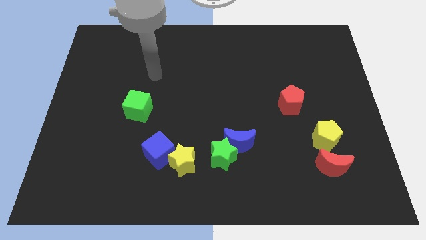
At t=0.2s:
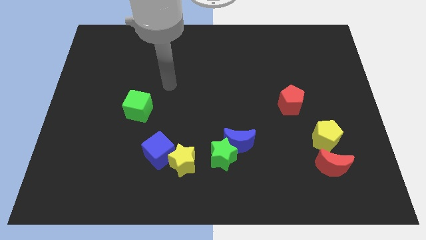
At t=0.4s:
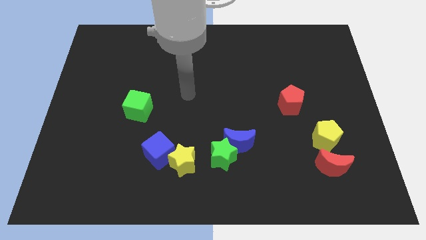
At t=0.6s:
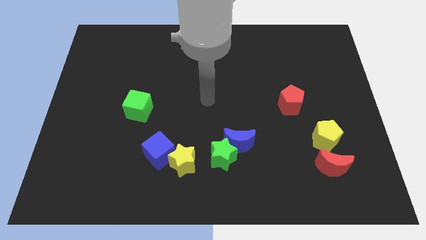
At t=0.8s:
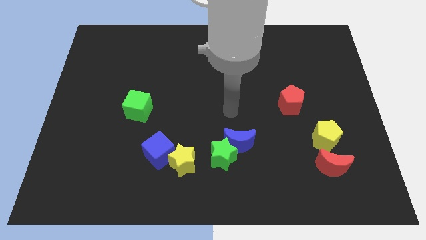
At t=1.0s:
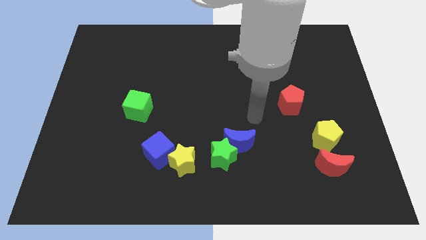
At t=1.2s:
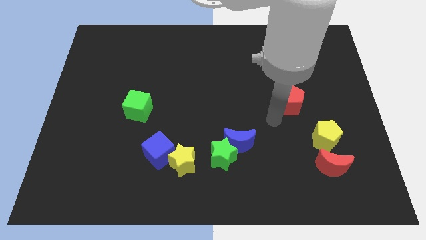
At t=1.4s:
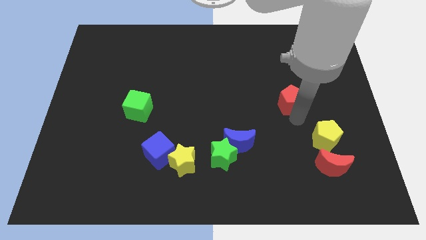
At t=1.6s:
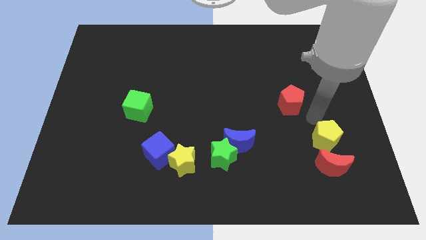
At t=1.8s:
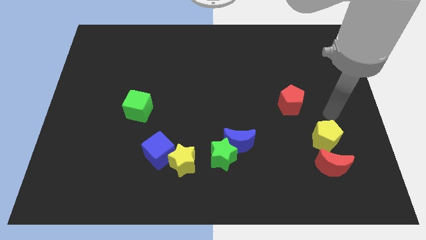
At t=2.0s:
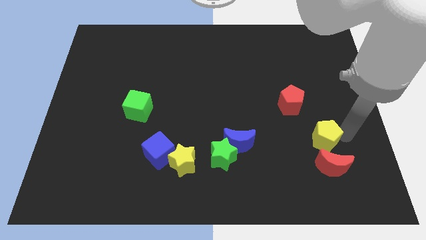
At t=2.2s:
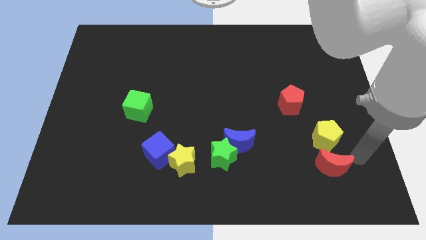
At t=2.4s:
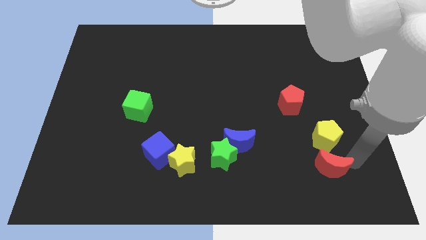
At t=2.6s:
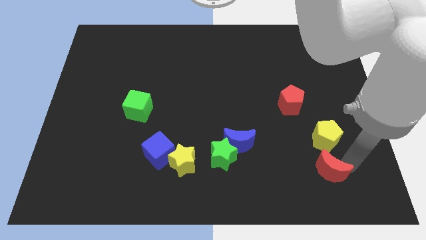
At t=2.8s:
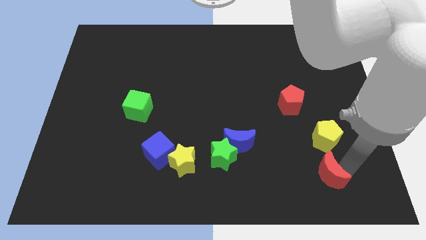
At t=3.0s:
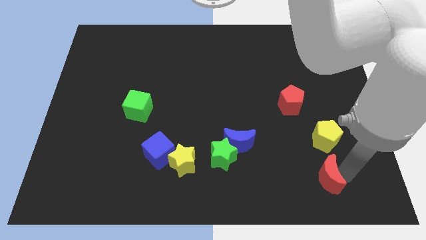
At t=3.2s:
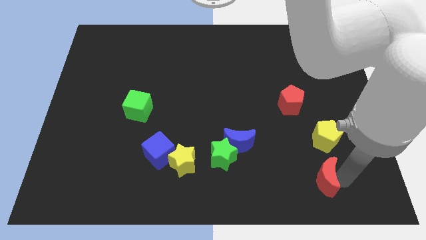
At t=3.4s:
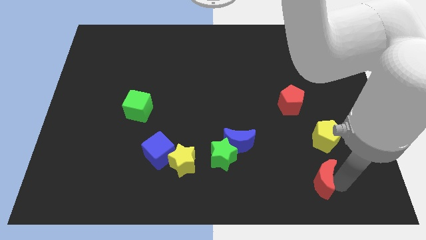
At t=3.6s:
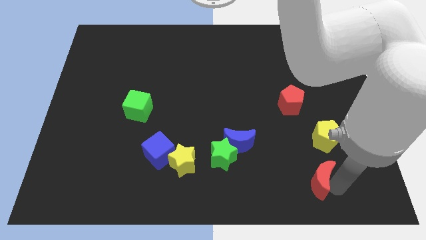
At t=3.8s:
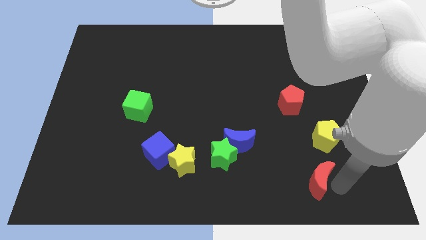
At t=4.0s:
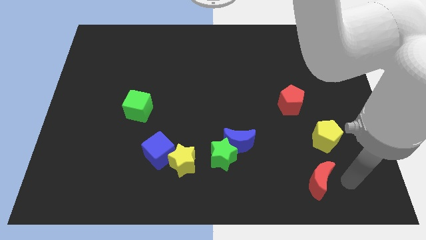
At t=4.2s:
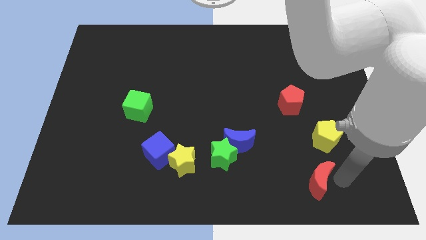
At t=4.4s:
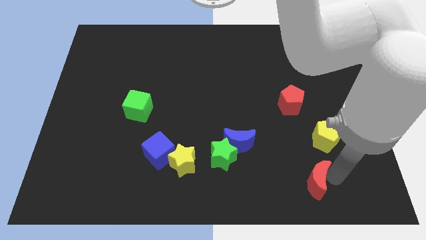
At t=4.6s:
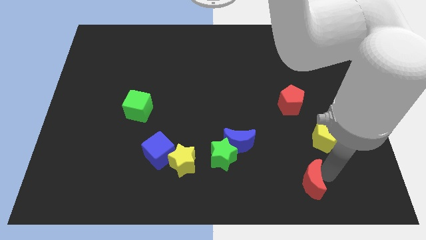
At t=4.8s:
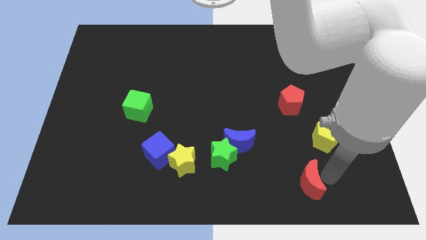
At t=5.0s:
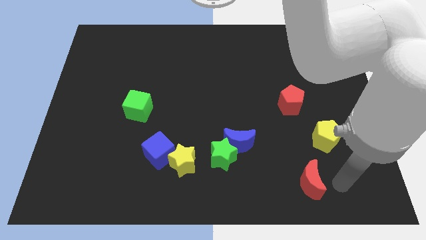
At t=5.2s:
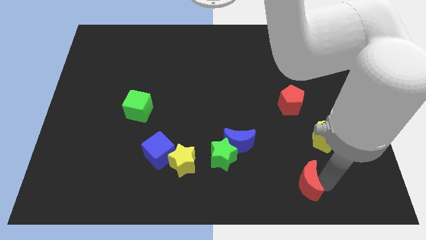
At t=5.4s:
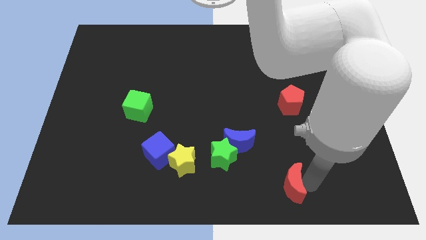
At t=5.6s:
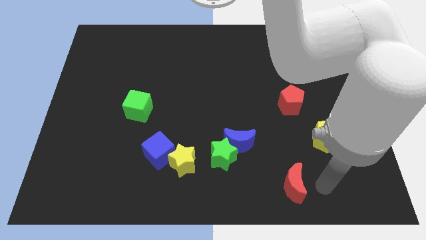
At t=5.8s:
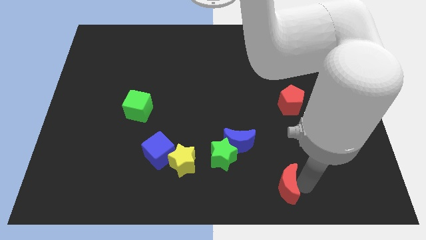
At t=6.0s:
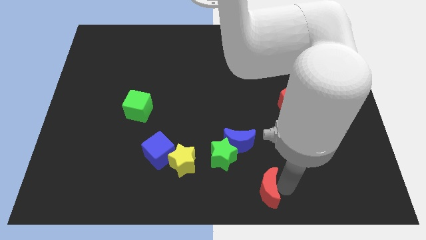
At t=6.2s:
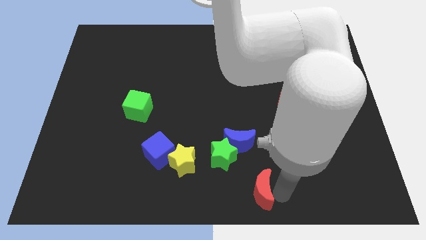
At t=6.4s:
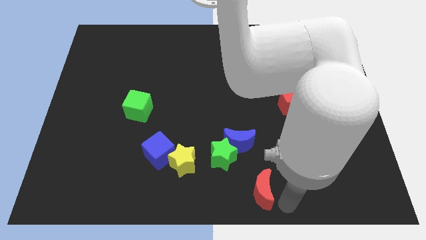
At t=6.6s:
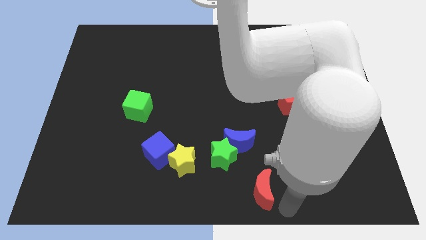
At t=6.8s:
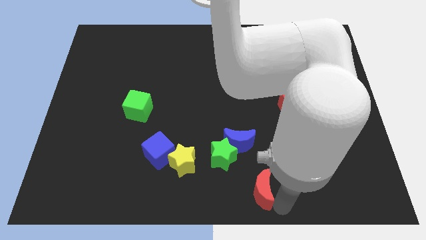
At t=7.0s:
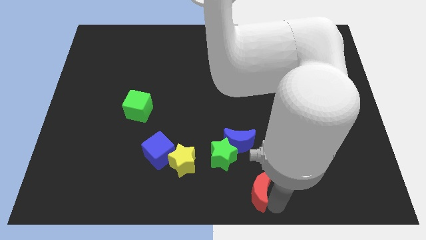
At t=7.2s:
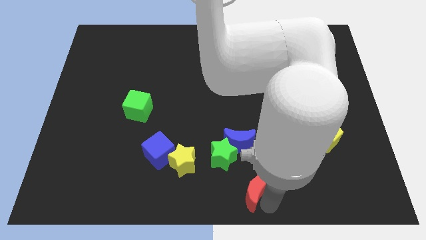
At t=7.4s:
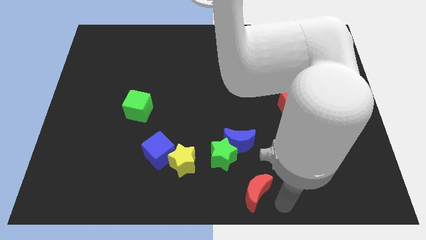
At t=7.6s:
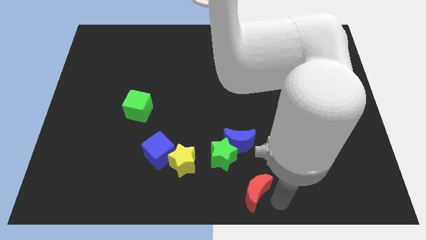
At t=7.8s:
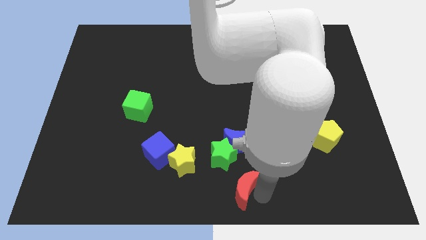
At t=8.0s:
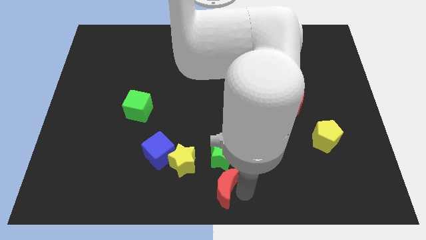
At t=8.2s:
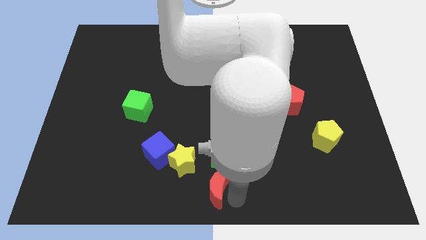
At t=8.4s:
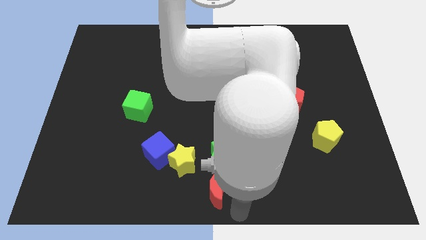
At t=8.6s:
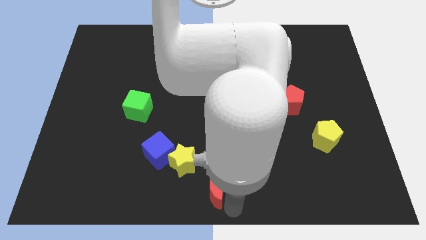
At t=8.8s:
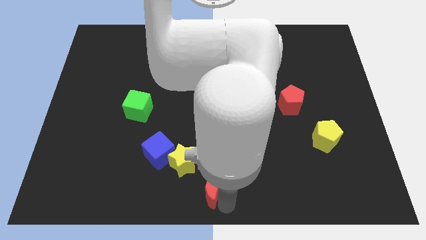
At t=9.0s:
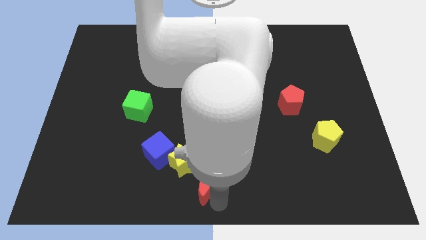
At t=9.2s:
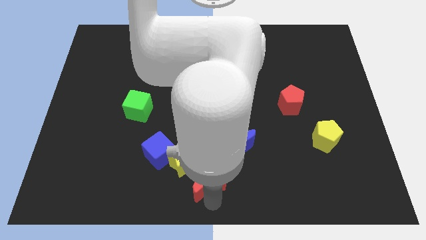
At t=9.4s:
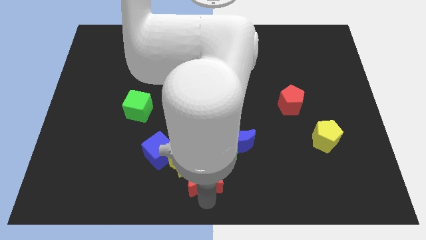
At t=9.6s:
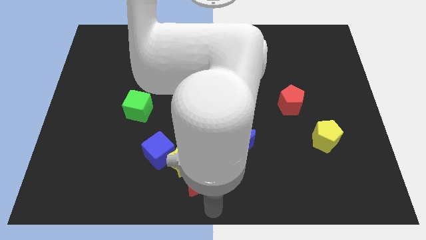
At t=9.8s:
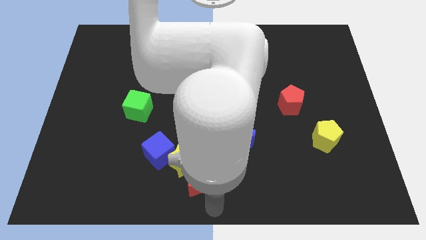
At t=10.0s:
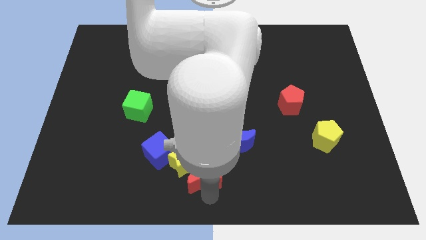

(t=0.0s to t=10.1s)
put the red moon close to the yellow star

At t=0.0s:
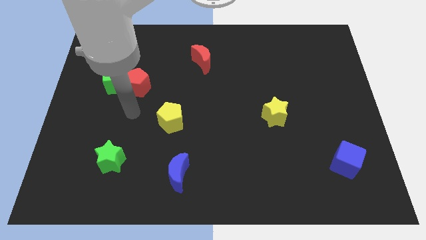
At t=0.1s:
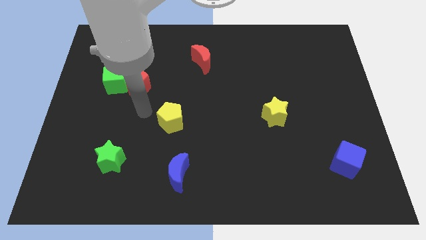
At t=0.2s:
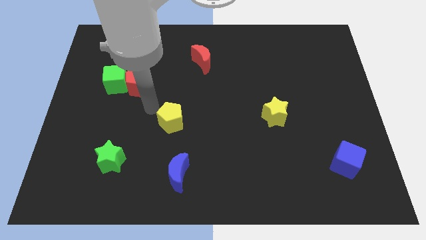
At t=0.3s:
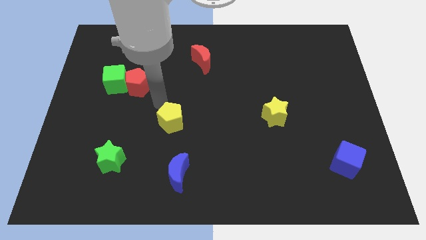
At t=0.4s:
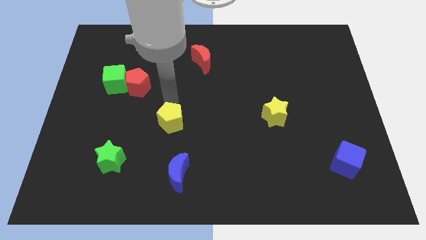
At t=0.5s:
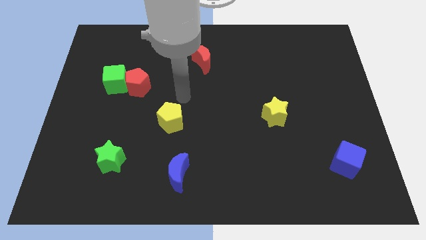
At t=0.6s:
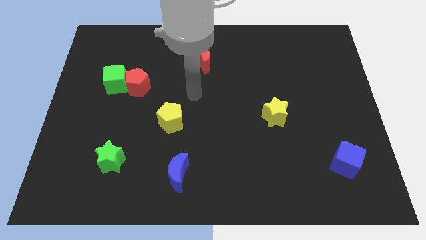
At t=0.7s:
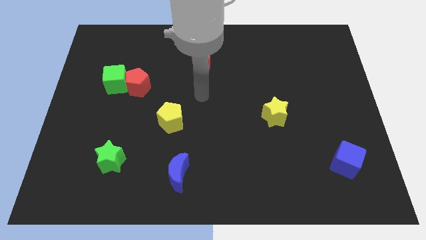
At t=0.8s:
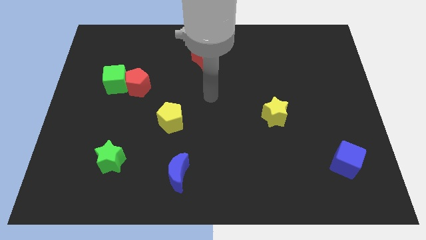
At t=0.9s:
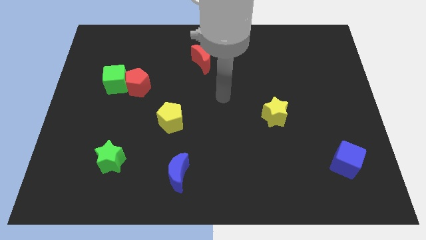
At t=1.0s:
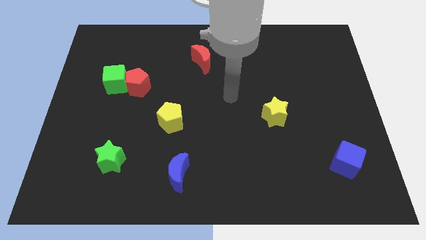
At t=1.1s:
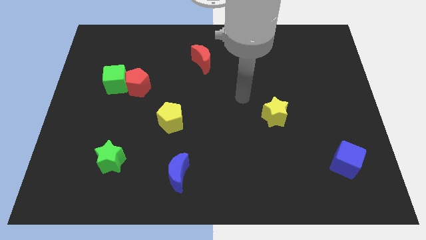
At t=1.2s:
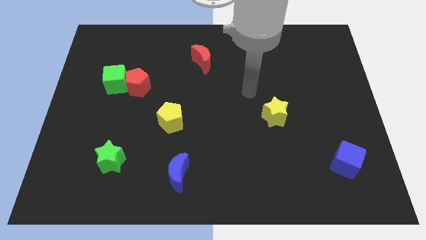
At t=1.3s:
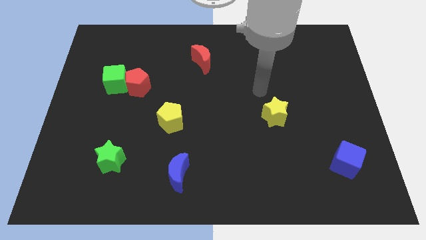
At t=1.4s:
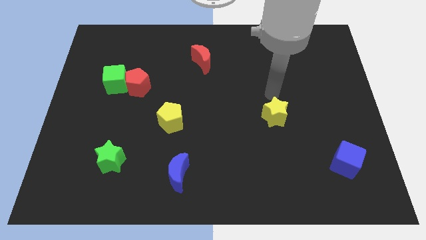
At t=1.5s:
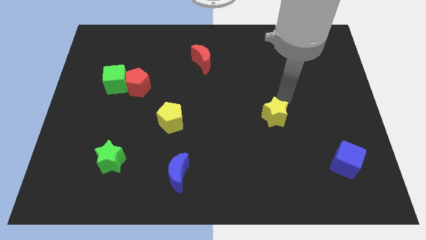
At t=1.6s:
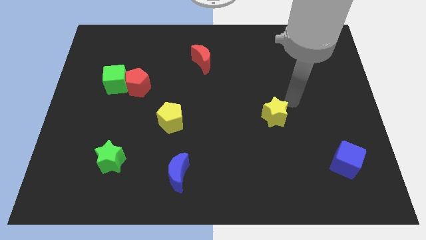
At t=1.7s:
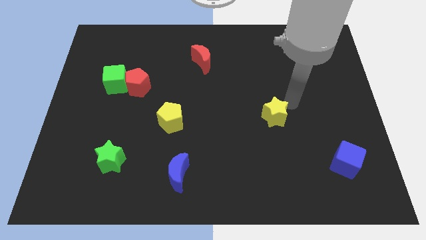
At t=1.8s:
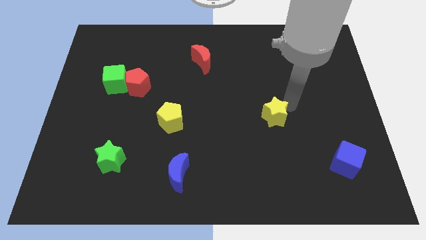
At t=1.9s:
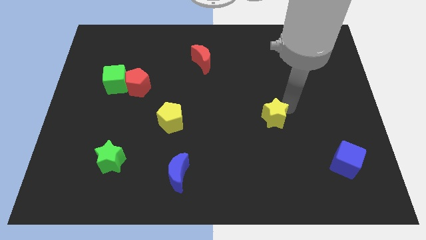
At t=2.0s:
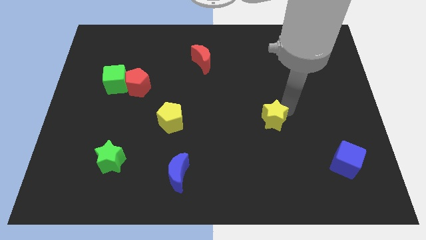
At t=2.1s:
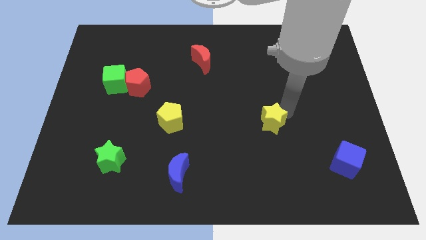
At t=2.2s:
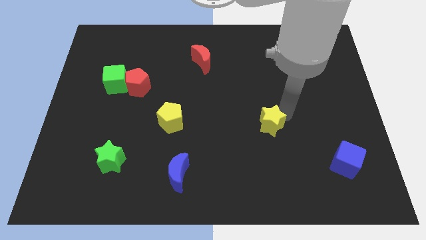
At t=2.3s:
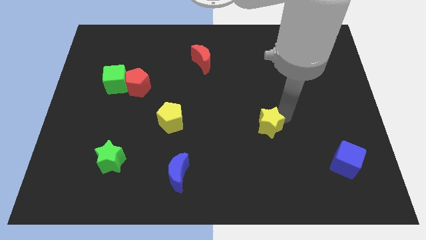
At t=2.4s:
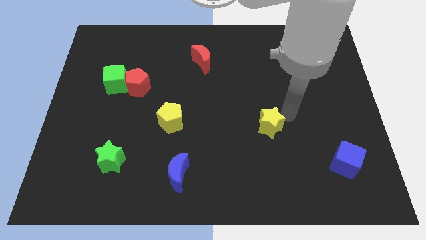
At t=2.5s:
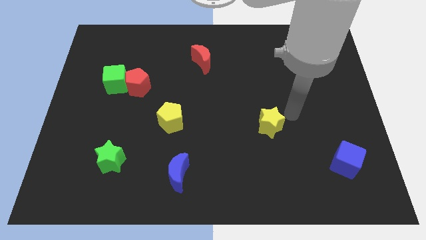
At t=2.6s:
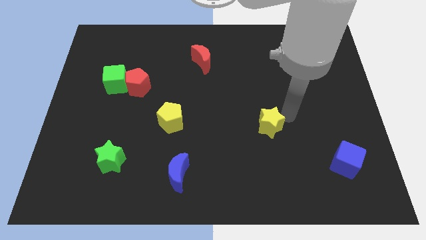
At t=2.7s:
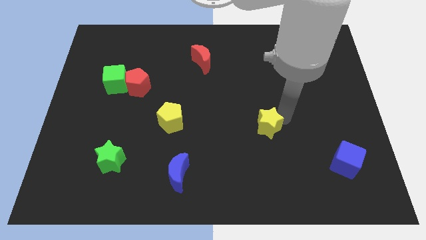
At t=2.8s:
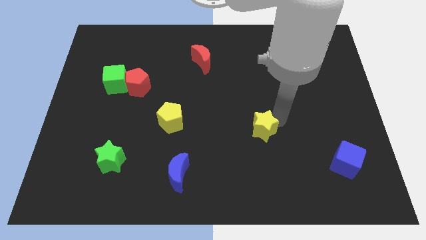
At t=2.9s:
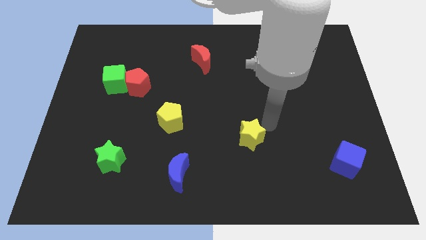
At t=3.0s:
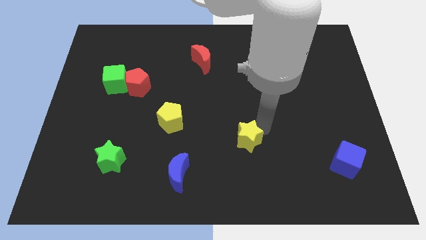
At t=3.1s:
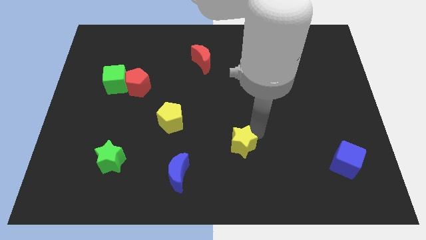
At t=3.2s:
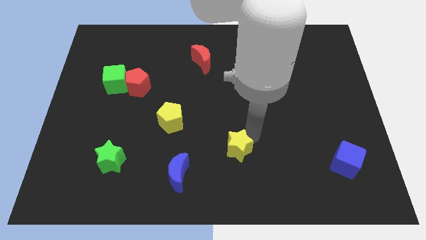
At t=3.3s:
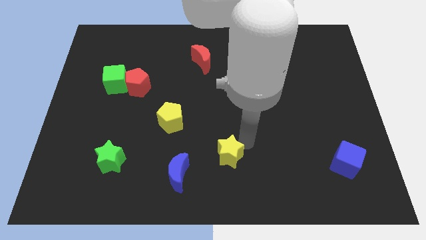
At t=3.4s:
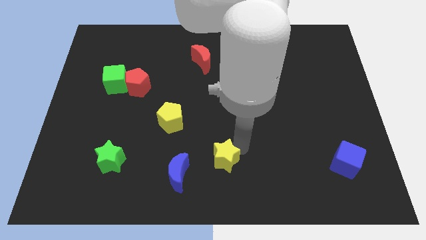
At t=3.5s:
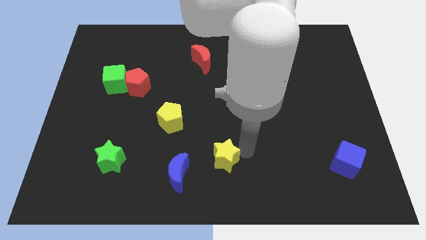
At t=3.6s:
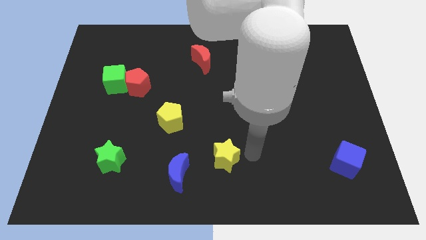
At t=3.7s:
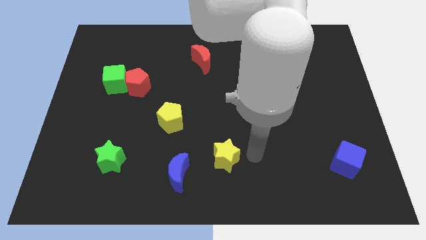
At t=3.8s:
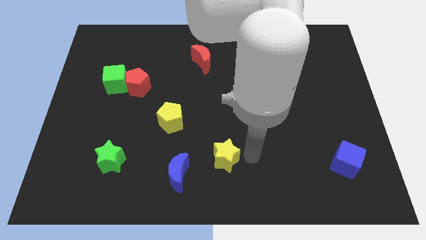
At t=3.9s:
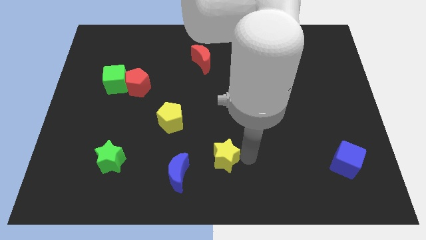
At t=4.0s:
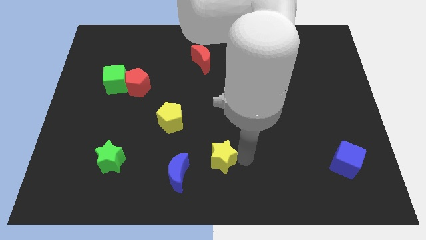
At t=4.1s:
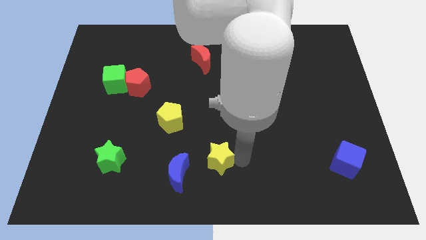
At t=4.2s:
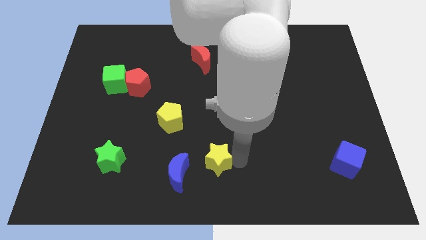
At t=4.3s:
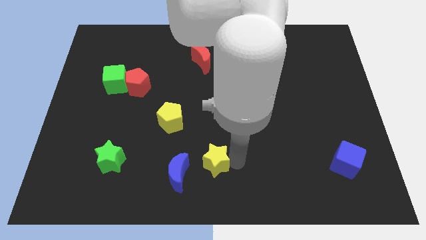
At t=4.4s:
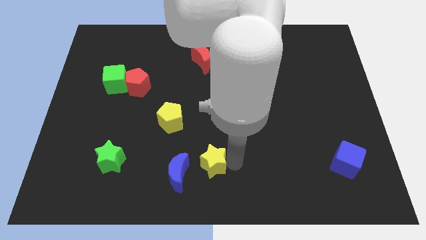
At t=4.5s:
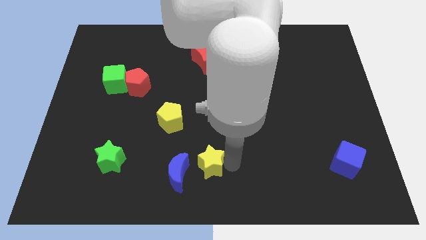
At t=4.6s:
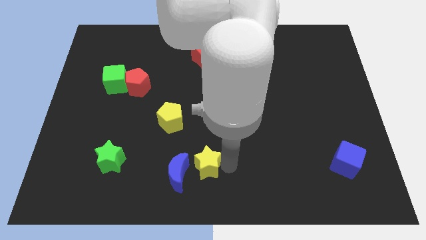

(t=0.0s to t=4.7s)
push the yellow star next to the blue moon
